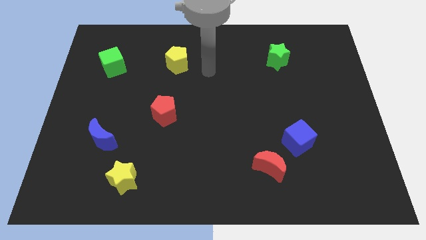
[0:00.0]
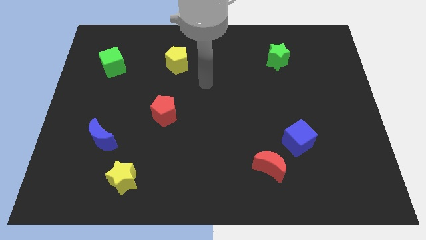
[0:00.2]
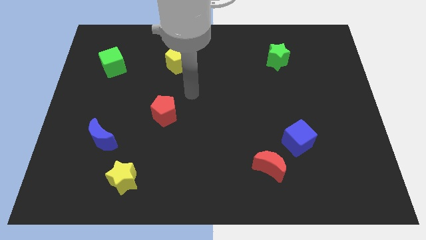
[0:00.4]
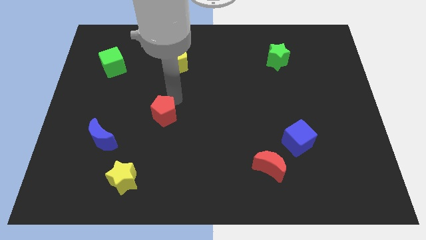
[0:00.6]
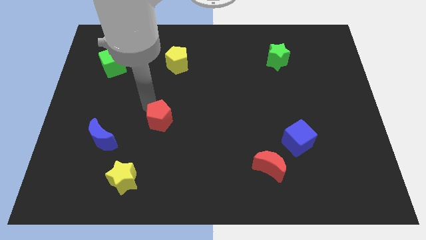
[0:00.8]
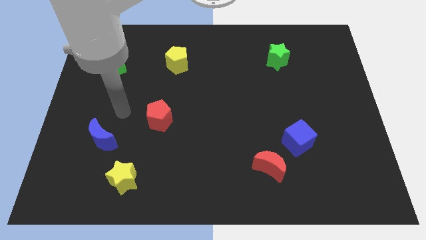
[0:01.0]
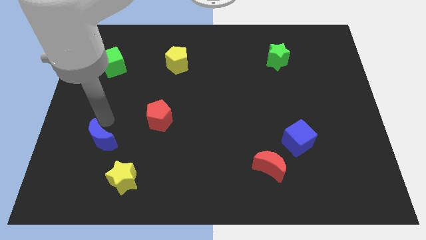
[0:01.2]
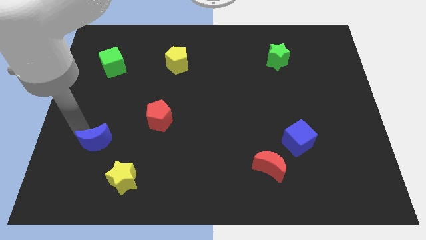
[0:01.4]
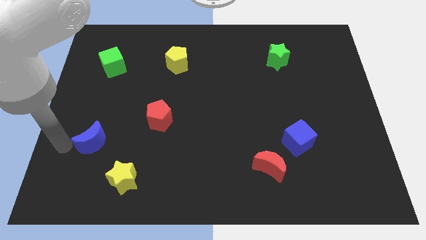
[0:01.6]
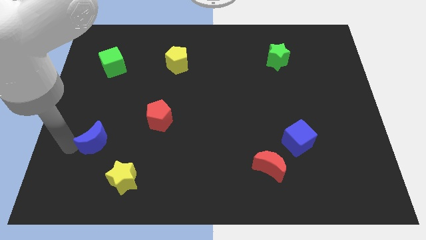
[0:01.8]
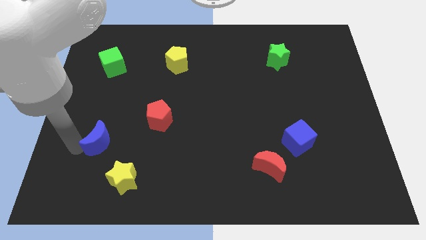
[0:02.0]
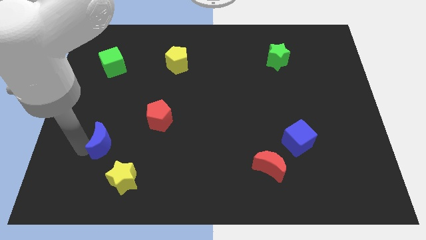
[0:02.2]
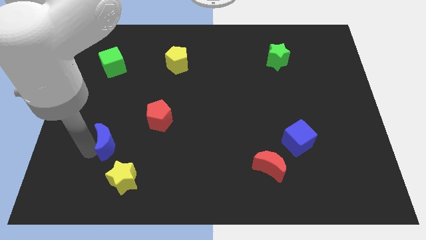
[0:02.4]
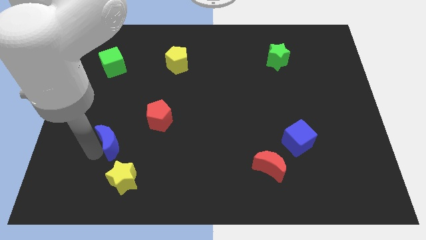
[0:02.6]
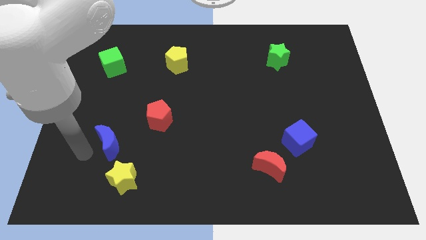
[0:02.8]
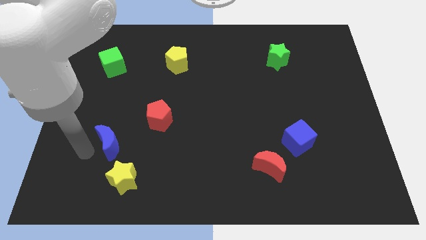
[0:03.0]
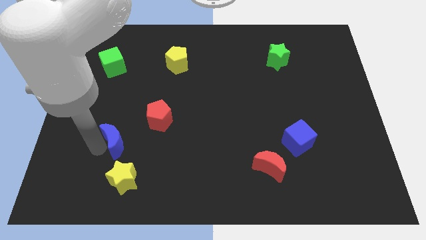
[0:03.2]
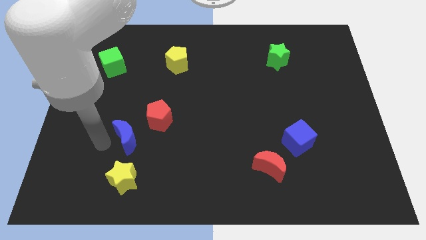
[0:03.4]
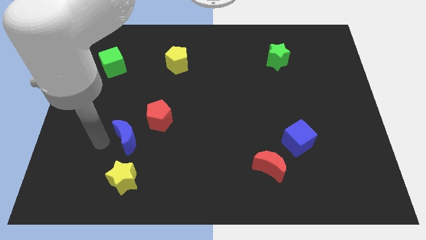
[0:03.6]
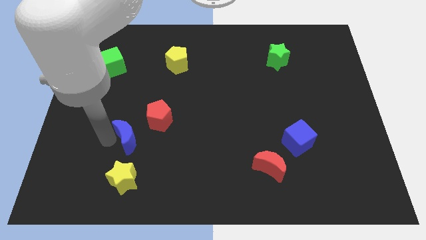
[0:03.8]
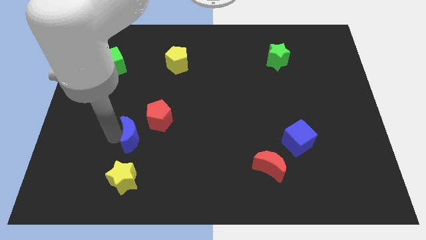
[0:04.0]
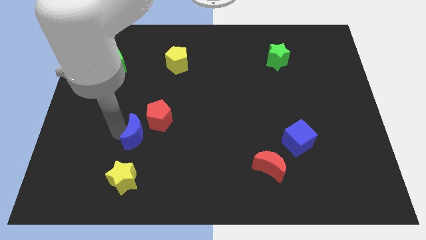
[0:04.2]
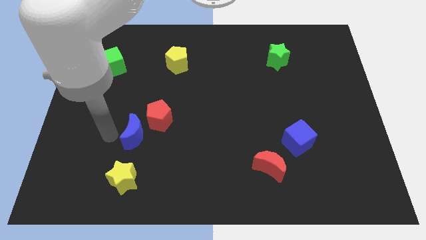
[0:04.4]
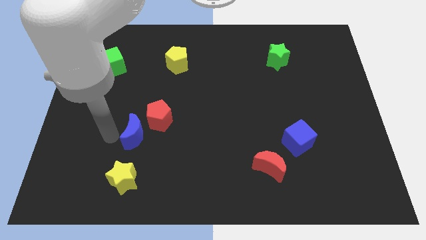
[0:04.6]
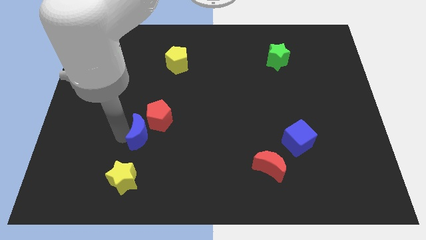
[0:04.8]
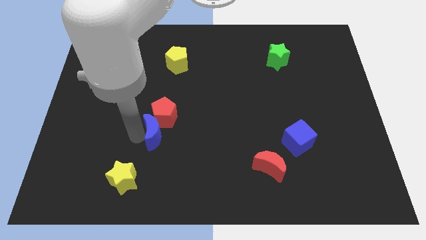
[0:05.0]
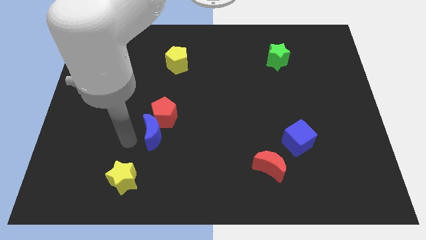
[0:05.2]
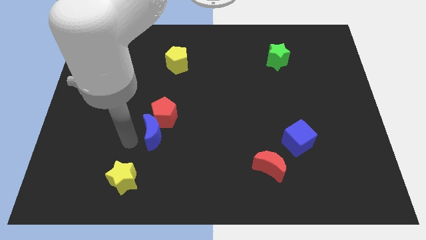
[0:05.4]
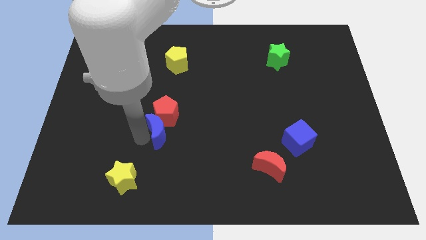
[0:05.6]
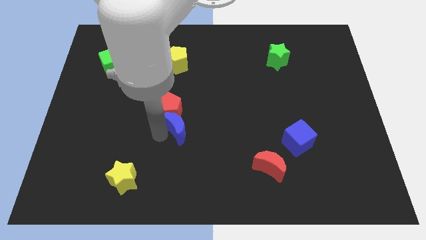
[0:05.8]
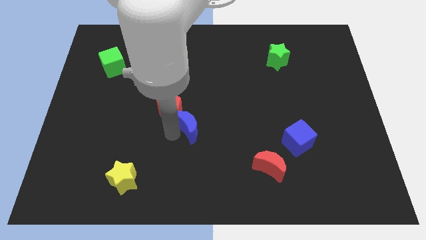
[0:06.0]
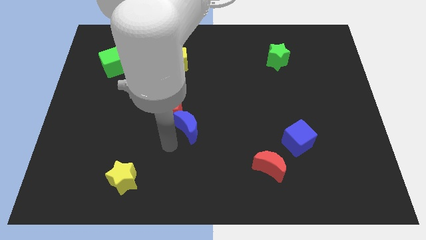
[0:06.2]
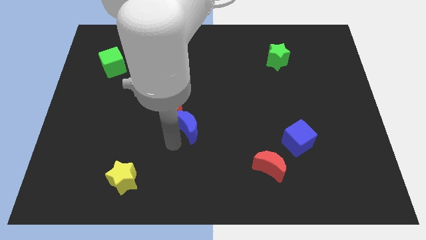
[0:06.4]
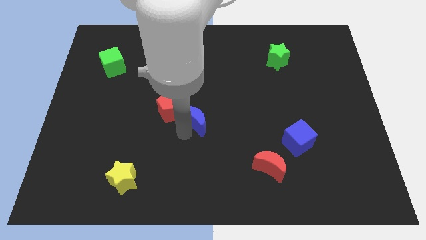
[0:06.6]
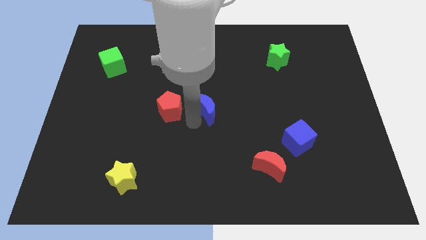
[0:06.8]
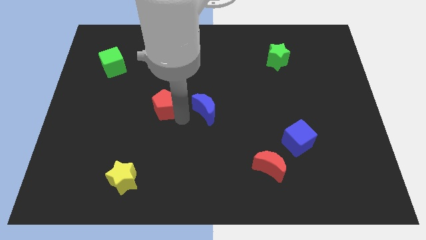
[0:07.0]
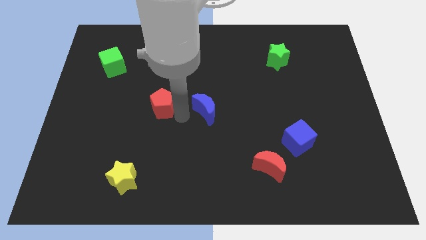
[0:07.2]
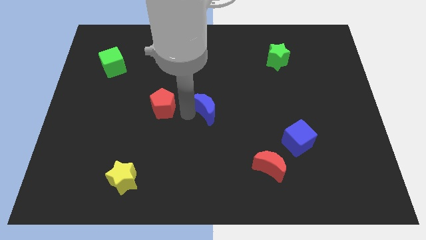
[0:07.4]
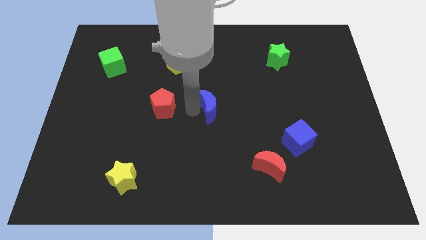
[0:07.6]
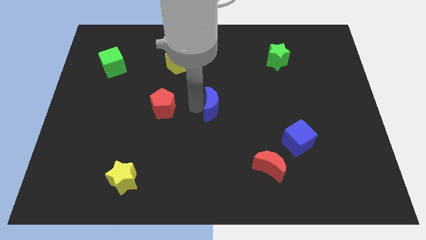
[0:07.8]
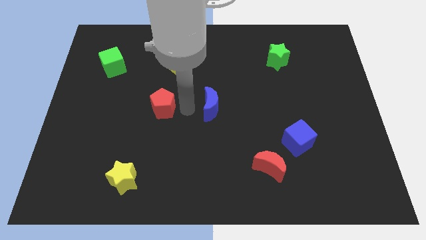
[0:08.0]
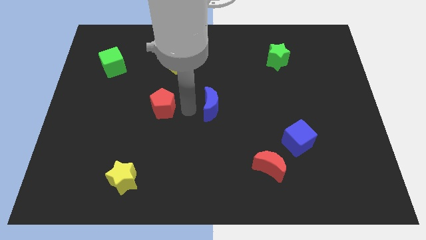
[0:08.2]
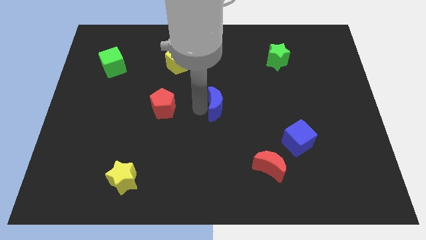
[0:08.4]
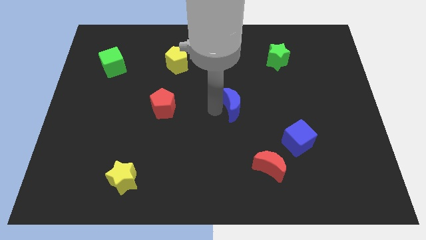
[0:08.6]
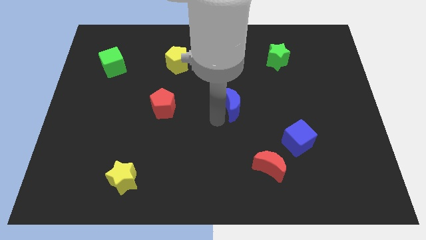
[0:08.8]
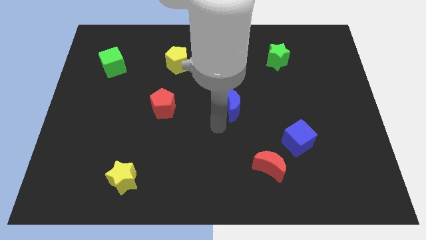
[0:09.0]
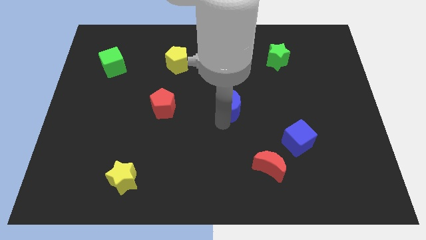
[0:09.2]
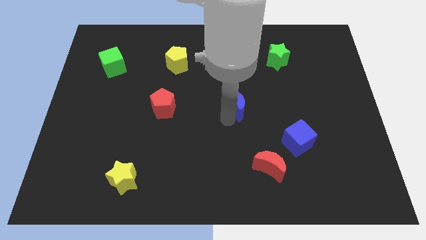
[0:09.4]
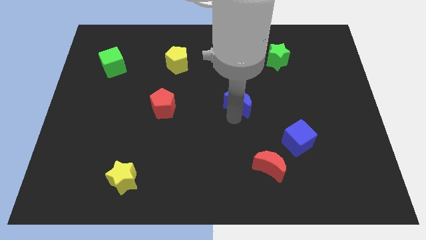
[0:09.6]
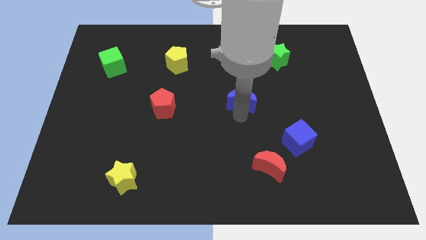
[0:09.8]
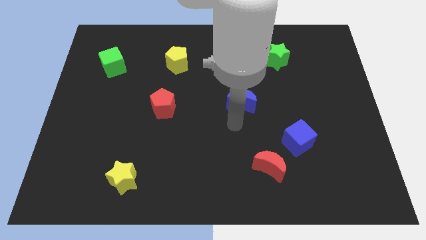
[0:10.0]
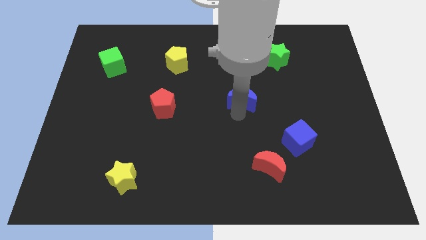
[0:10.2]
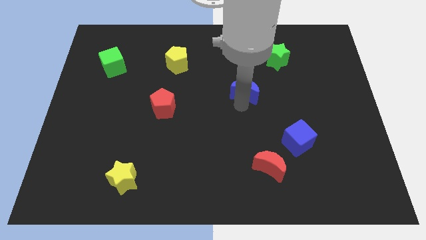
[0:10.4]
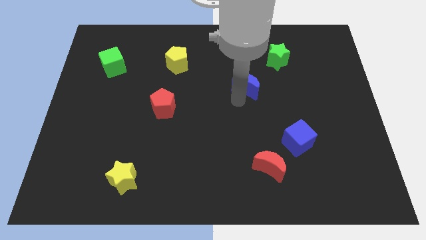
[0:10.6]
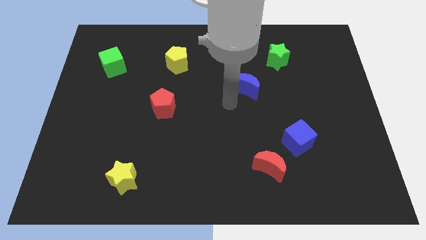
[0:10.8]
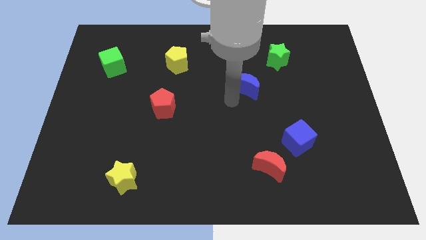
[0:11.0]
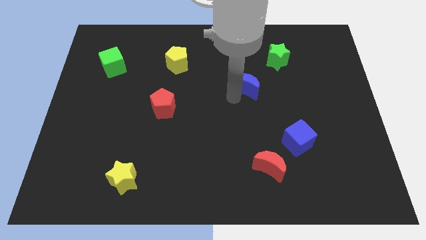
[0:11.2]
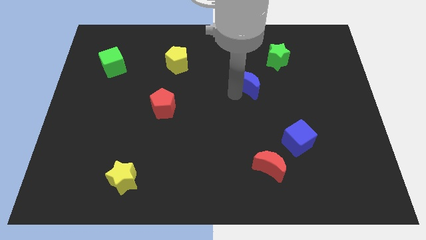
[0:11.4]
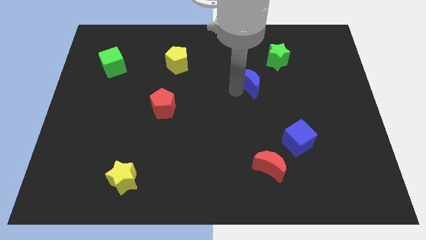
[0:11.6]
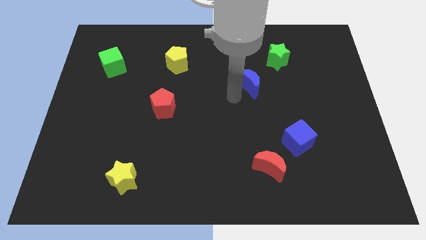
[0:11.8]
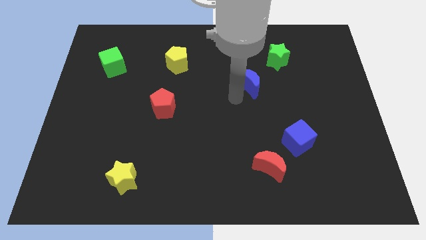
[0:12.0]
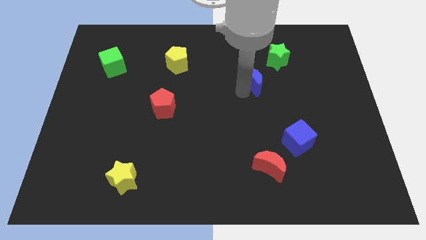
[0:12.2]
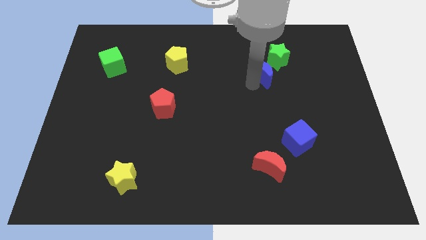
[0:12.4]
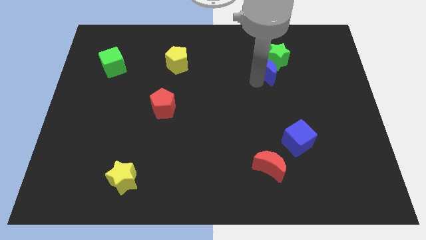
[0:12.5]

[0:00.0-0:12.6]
slide the blue moon next to the green star
